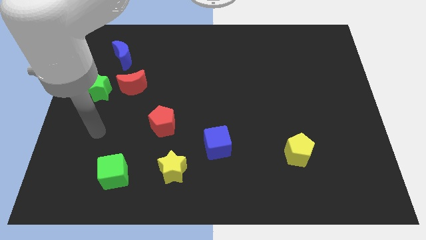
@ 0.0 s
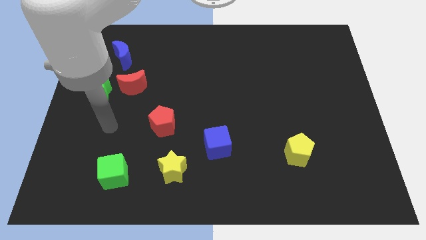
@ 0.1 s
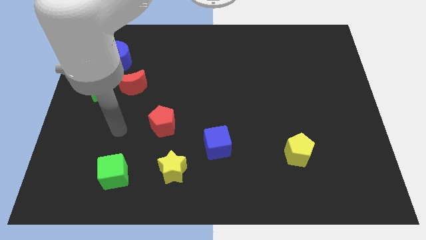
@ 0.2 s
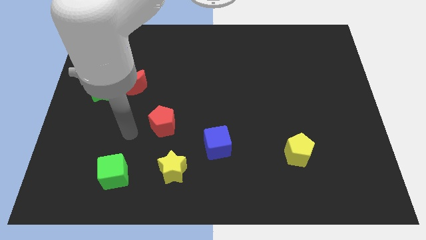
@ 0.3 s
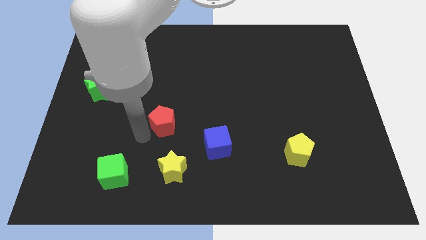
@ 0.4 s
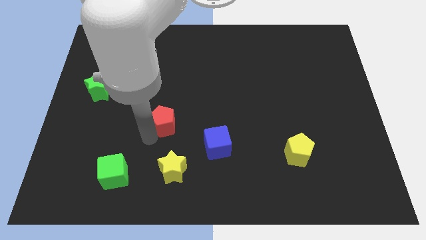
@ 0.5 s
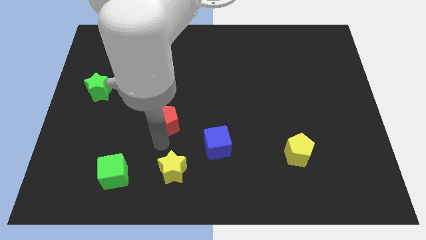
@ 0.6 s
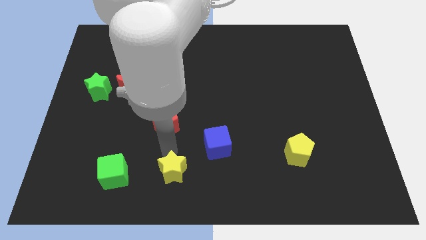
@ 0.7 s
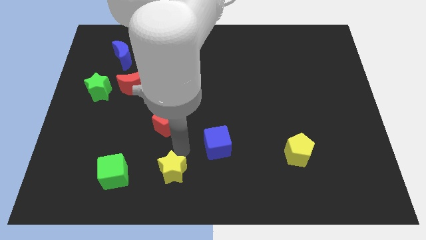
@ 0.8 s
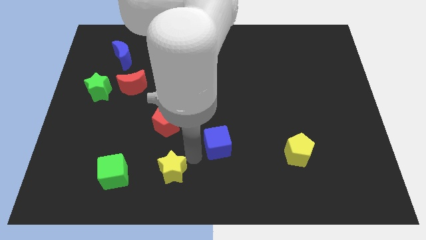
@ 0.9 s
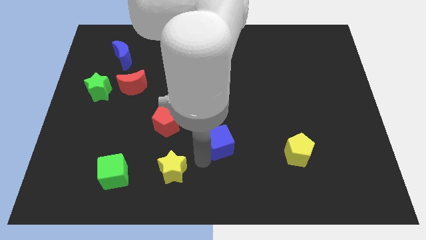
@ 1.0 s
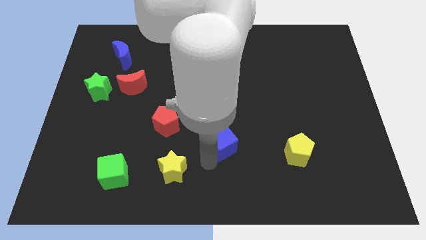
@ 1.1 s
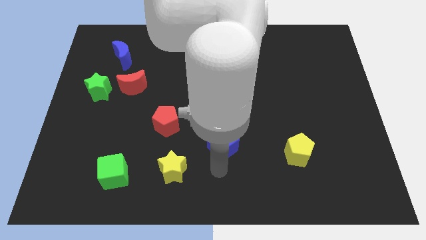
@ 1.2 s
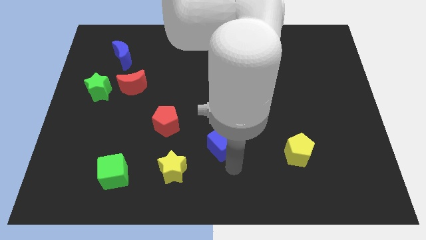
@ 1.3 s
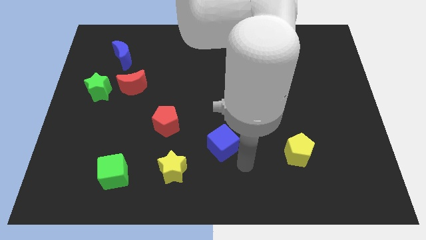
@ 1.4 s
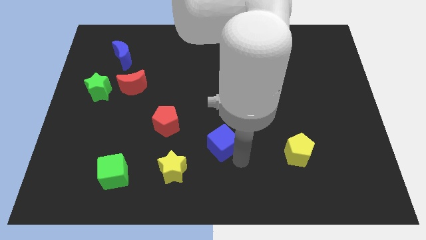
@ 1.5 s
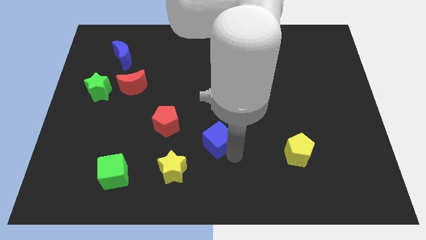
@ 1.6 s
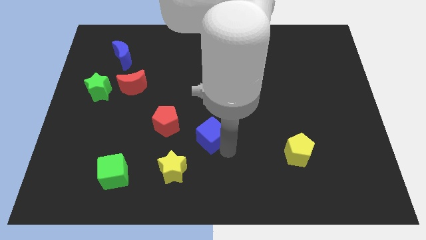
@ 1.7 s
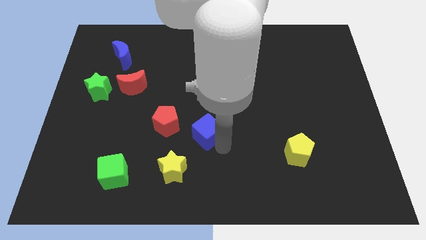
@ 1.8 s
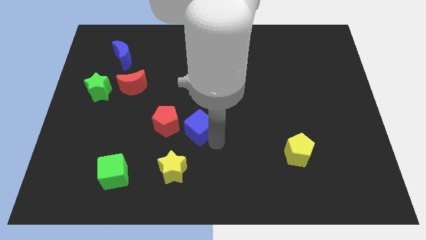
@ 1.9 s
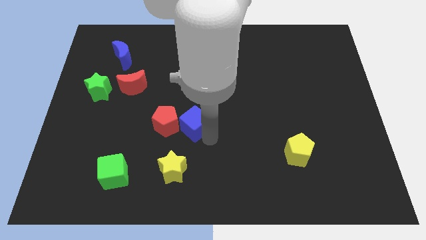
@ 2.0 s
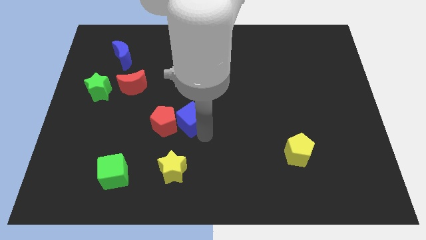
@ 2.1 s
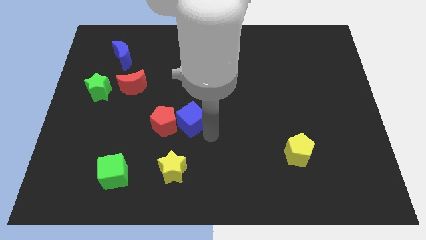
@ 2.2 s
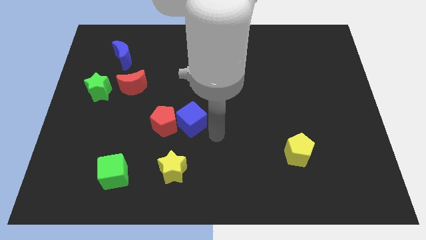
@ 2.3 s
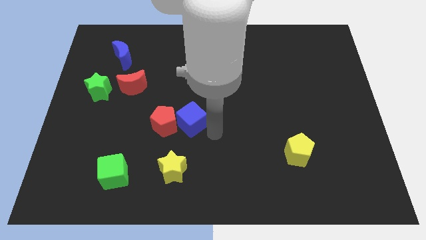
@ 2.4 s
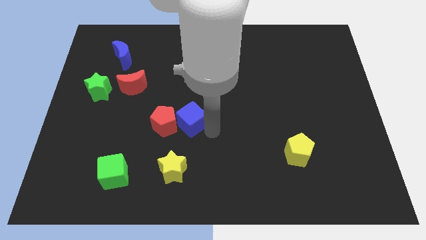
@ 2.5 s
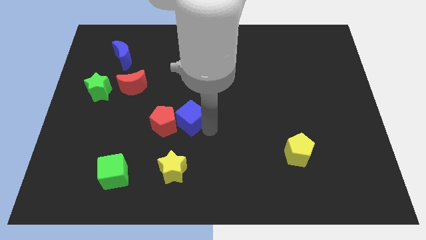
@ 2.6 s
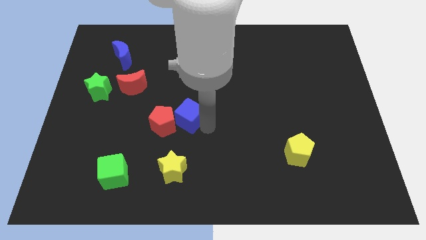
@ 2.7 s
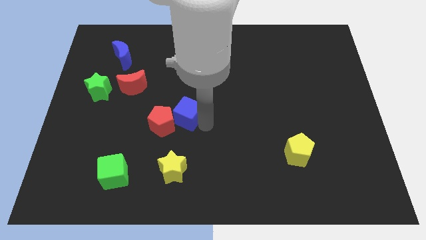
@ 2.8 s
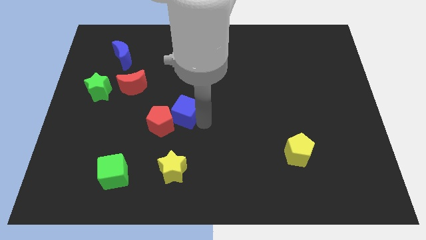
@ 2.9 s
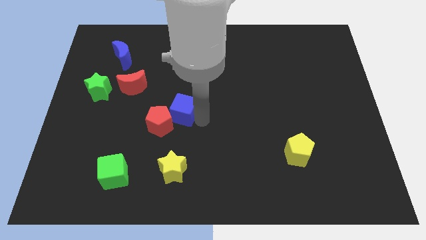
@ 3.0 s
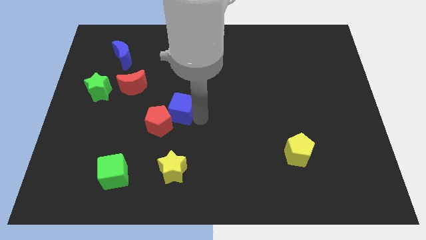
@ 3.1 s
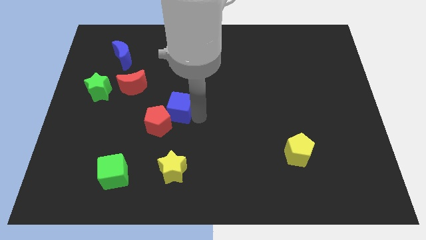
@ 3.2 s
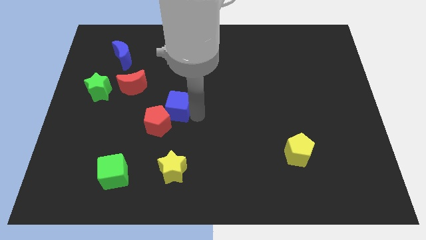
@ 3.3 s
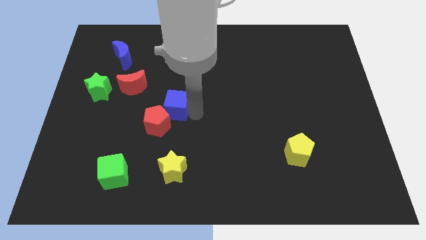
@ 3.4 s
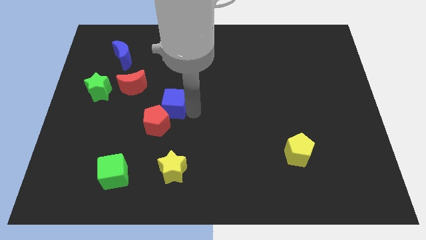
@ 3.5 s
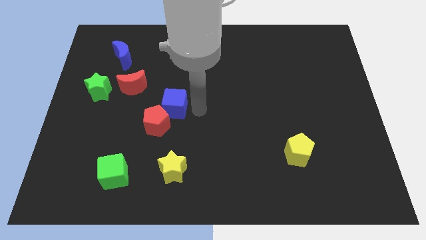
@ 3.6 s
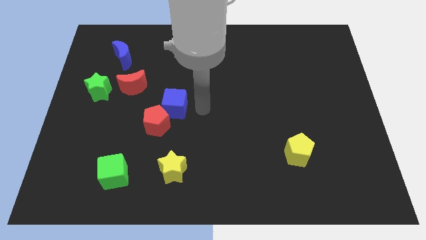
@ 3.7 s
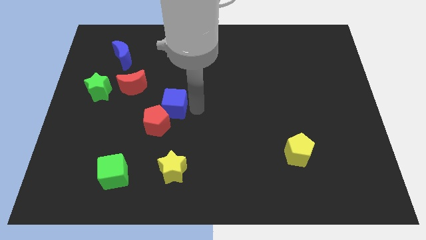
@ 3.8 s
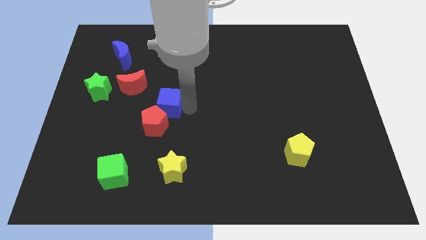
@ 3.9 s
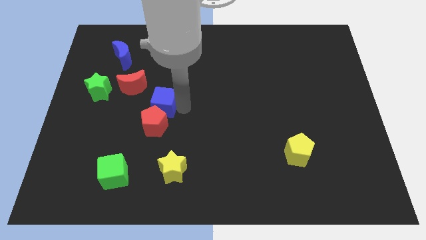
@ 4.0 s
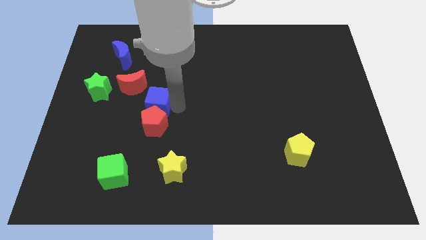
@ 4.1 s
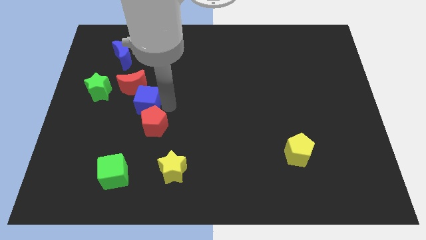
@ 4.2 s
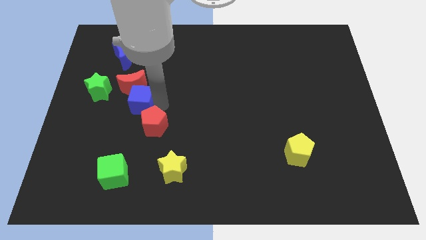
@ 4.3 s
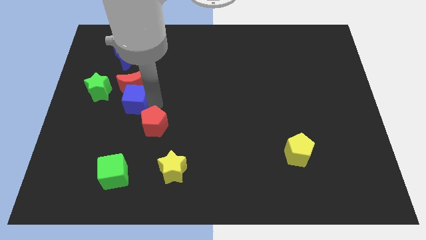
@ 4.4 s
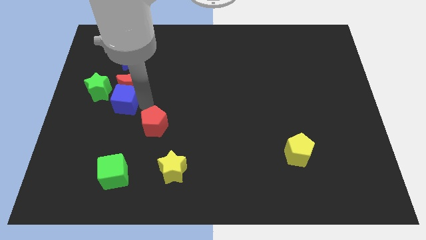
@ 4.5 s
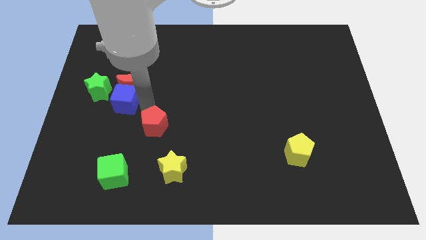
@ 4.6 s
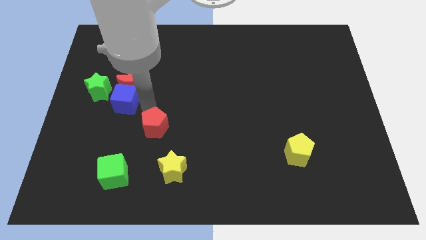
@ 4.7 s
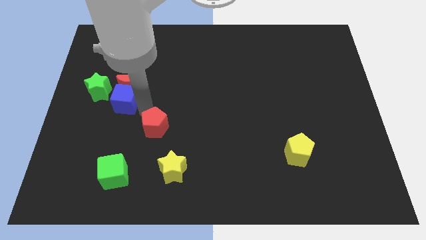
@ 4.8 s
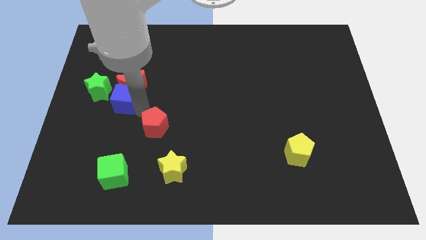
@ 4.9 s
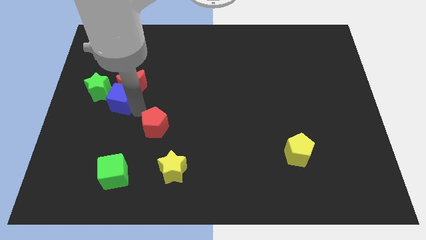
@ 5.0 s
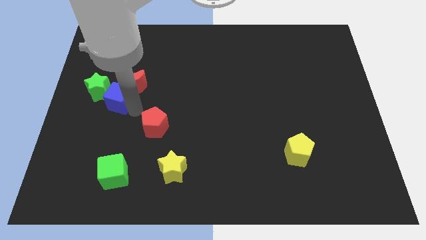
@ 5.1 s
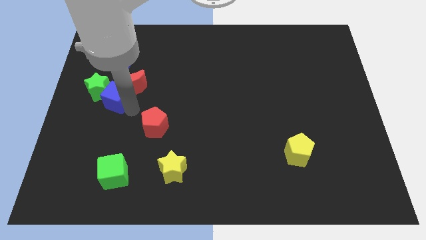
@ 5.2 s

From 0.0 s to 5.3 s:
put the blue cube to the green star

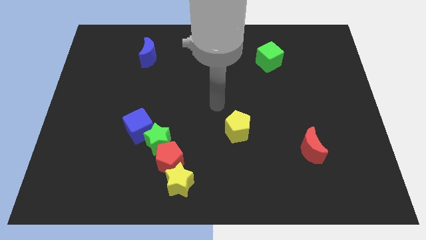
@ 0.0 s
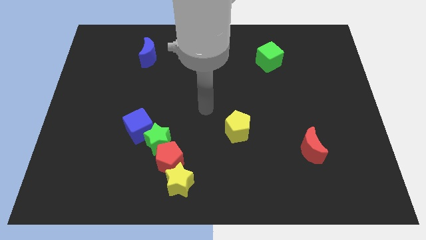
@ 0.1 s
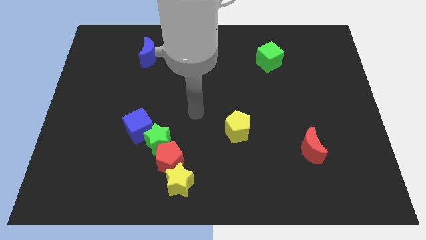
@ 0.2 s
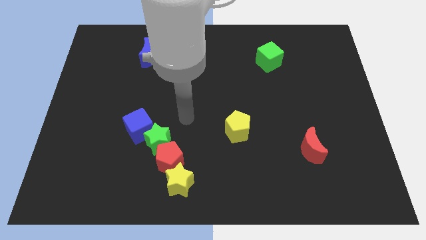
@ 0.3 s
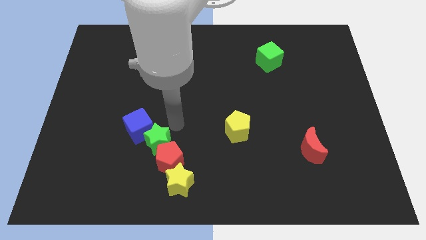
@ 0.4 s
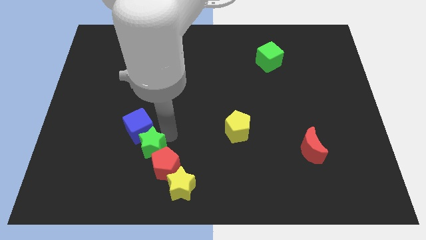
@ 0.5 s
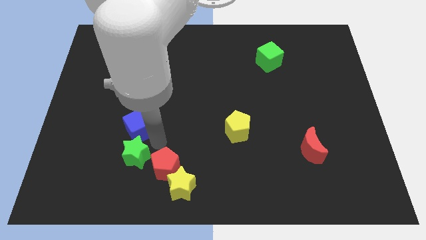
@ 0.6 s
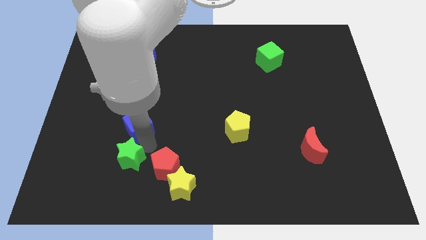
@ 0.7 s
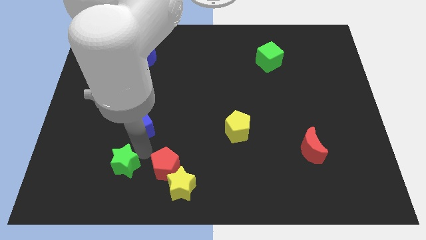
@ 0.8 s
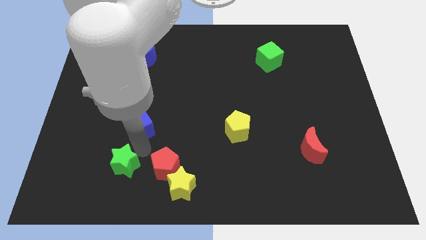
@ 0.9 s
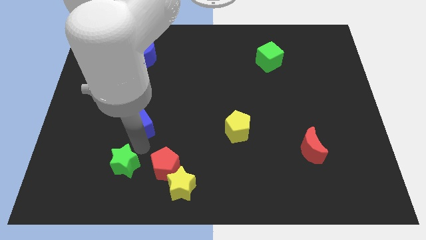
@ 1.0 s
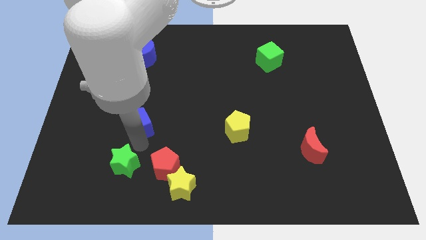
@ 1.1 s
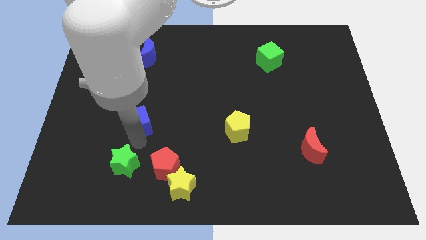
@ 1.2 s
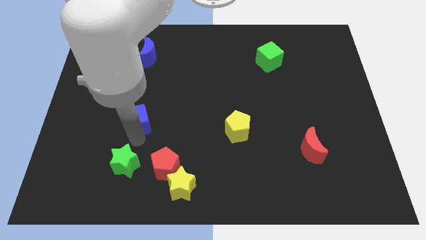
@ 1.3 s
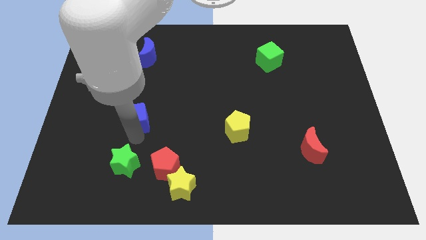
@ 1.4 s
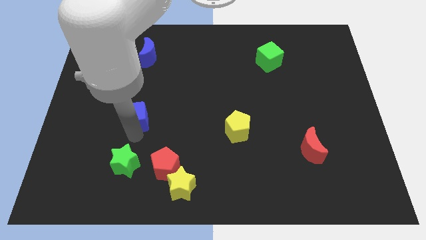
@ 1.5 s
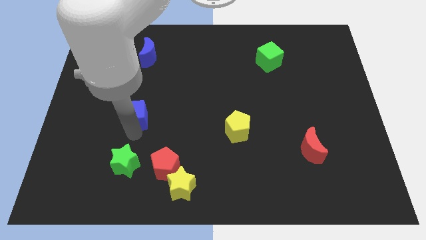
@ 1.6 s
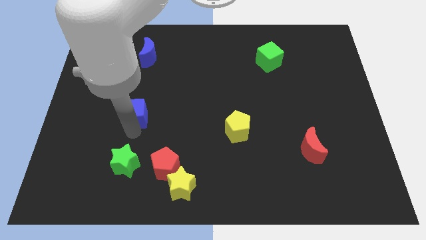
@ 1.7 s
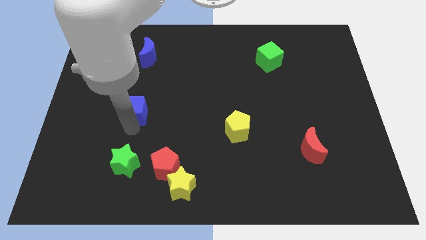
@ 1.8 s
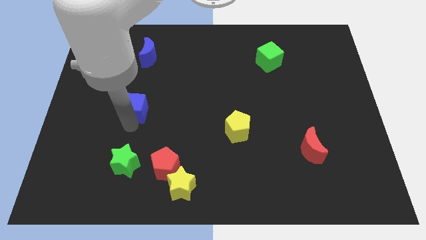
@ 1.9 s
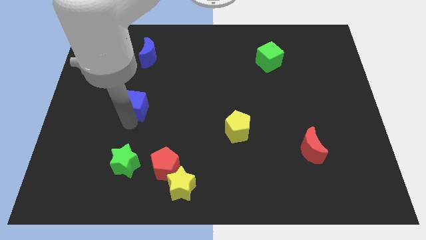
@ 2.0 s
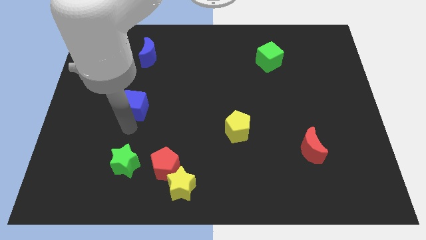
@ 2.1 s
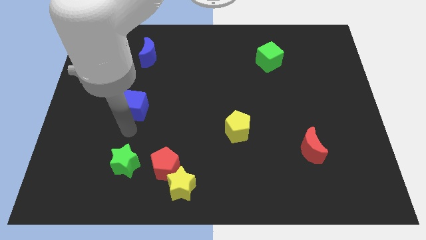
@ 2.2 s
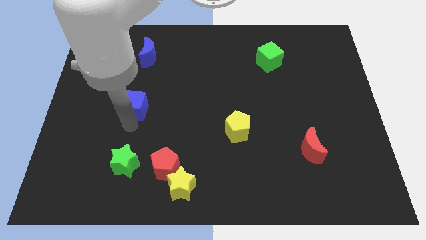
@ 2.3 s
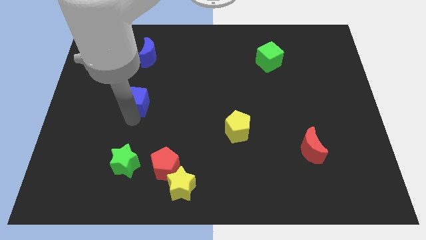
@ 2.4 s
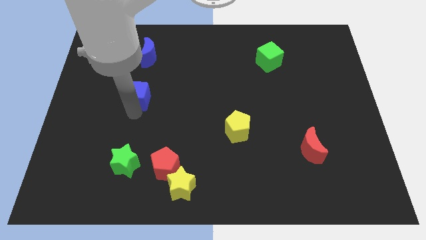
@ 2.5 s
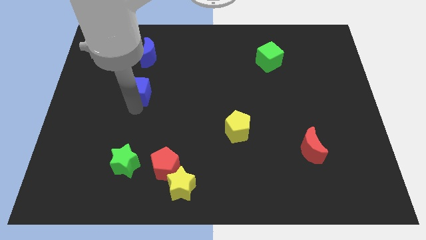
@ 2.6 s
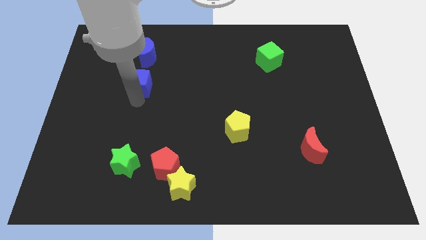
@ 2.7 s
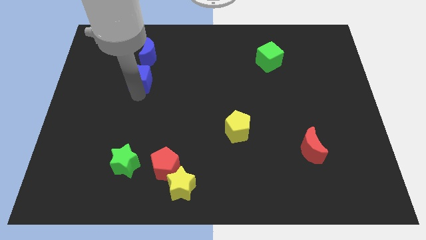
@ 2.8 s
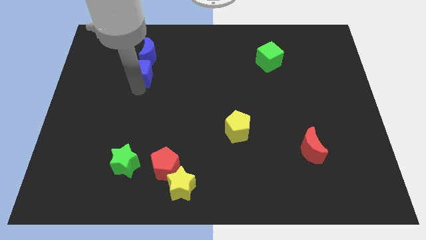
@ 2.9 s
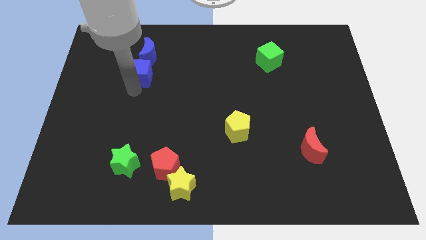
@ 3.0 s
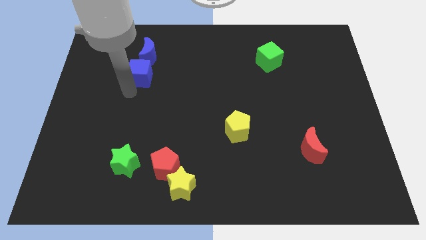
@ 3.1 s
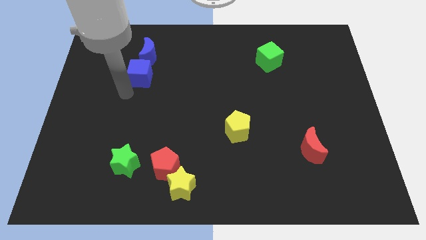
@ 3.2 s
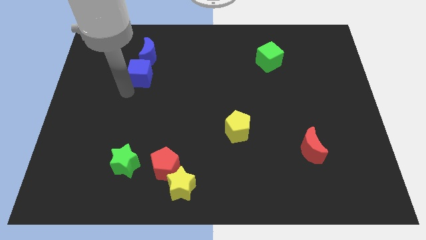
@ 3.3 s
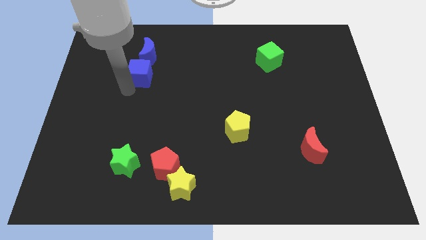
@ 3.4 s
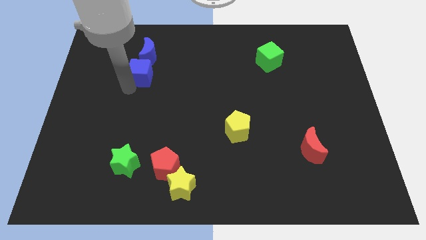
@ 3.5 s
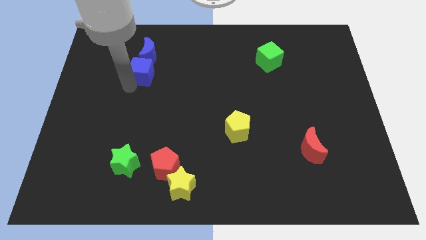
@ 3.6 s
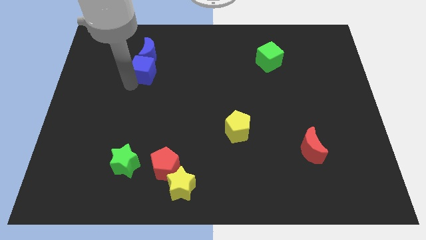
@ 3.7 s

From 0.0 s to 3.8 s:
move the blue cube towards the blue moon
